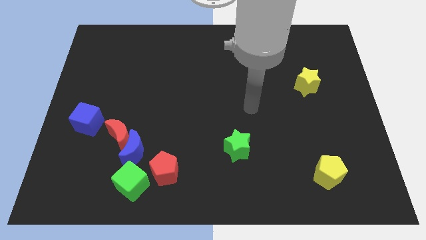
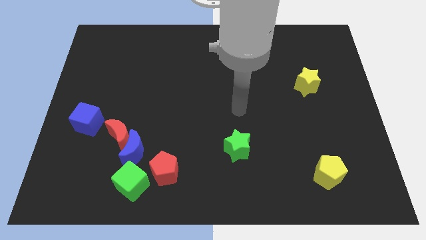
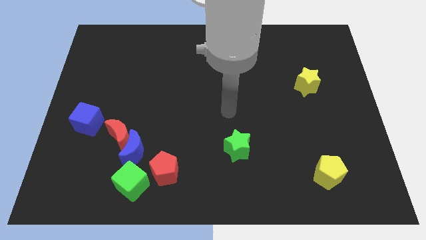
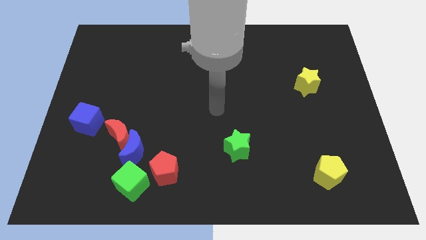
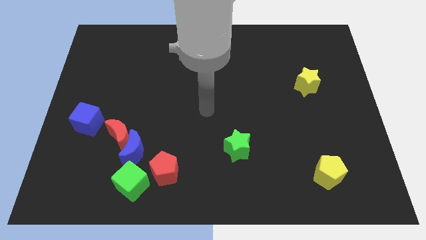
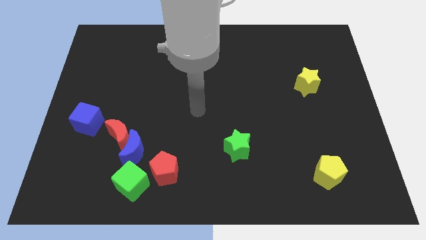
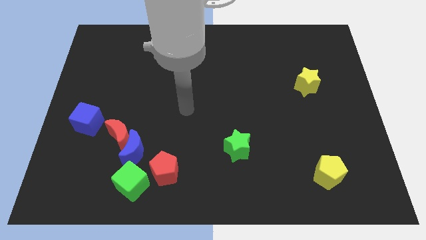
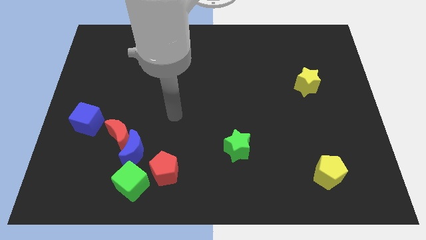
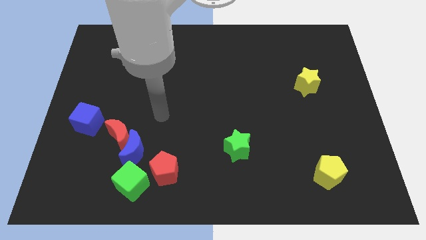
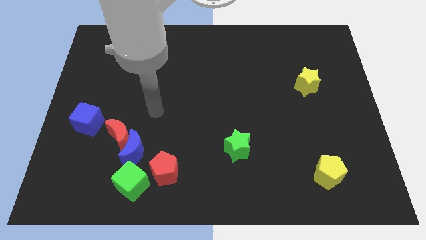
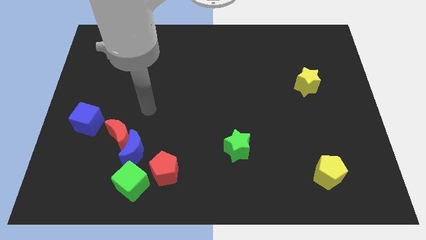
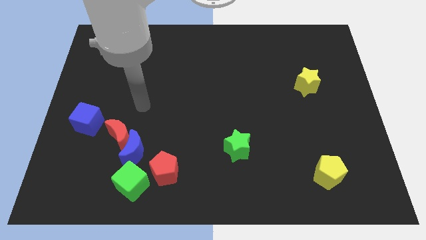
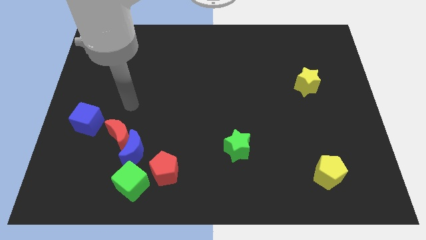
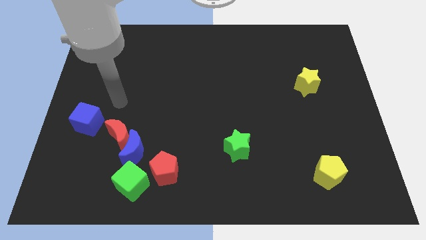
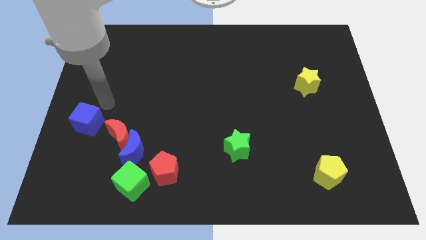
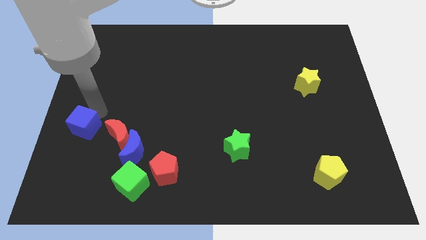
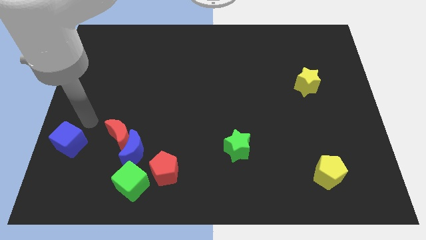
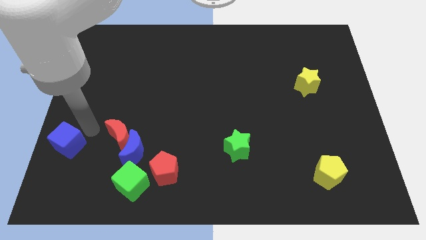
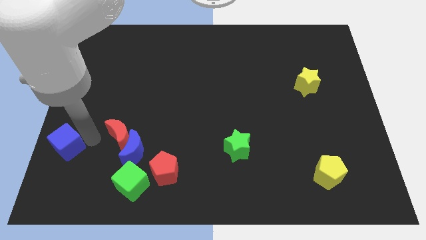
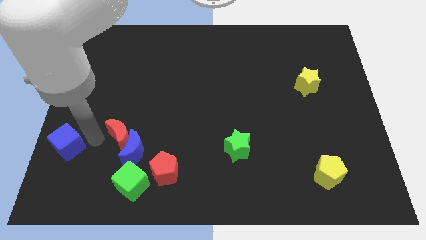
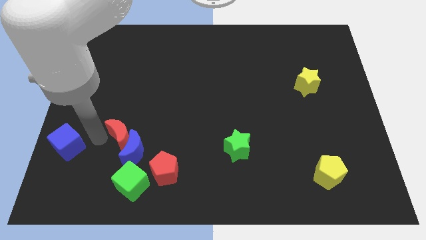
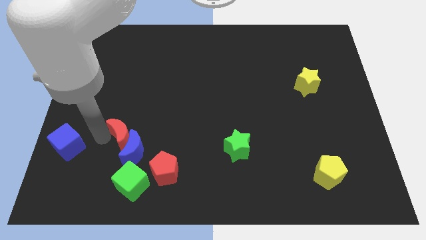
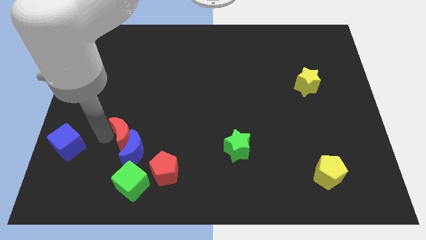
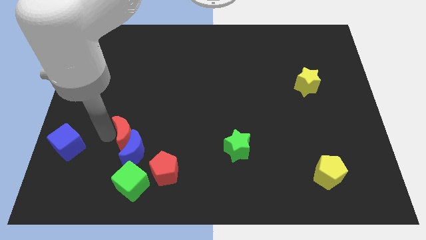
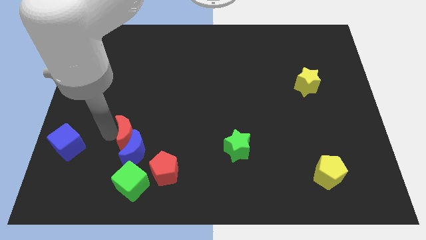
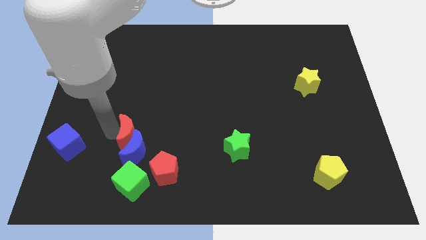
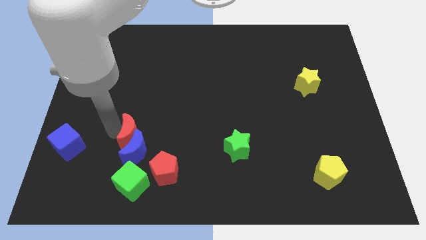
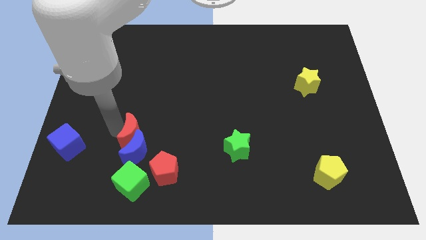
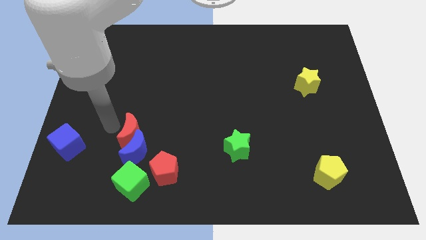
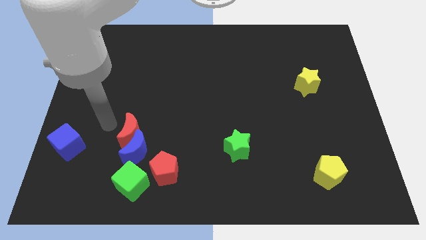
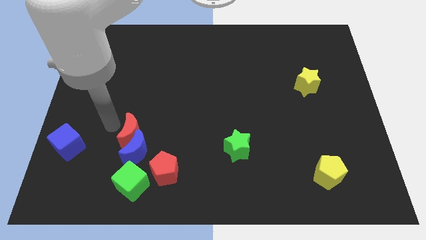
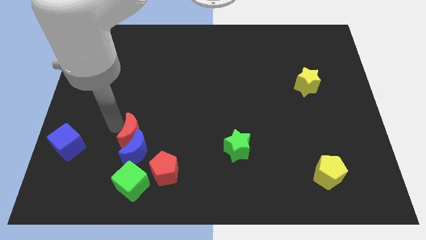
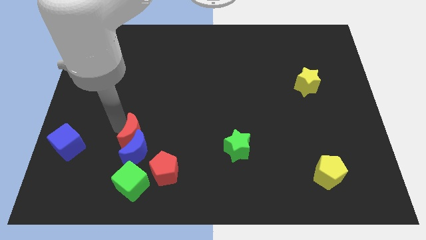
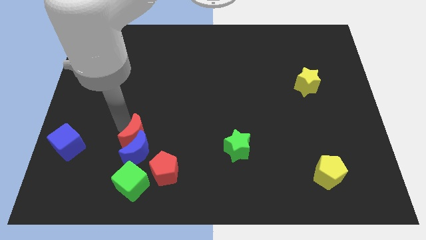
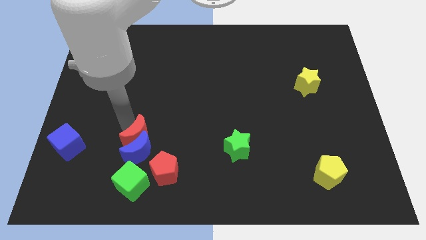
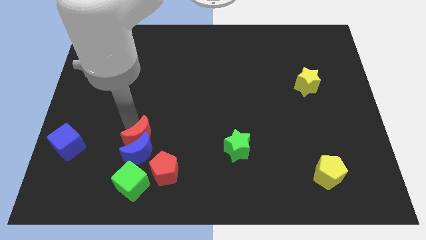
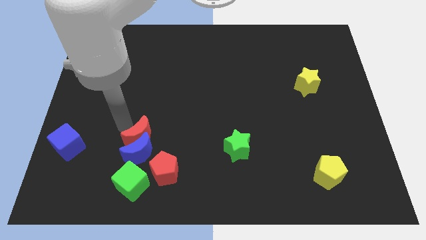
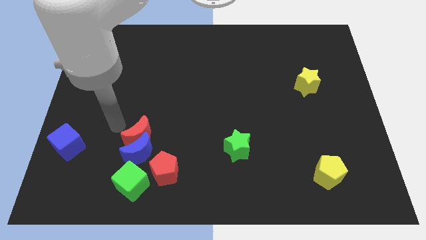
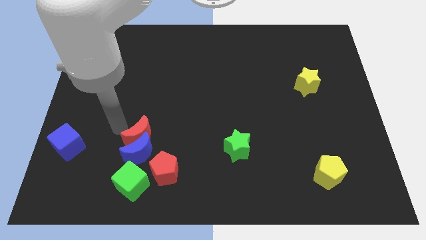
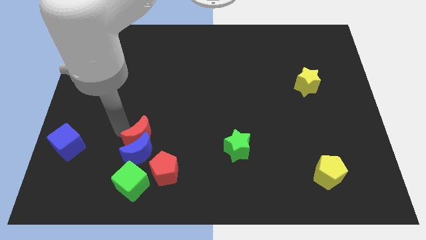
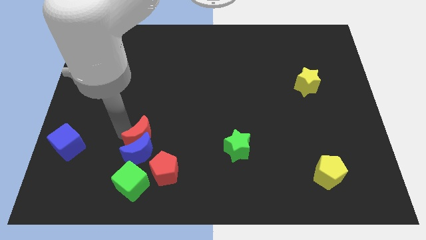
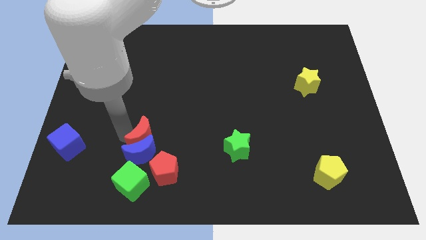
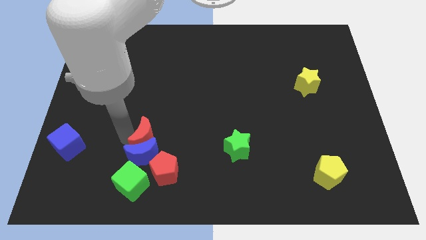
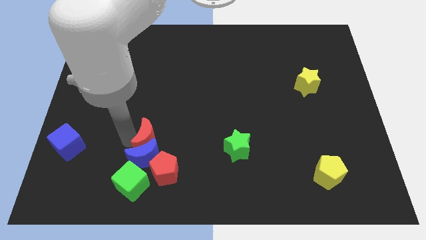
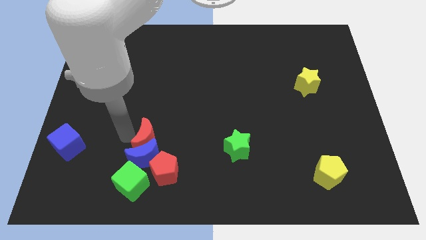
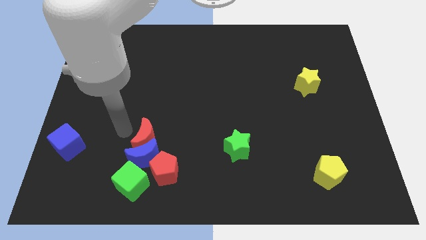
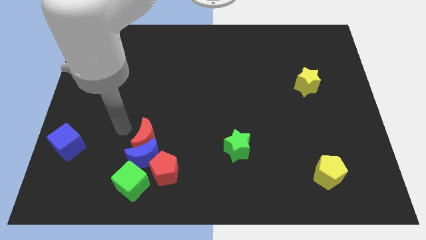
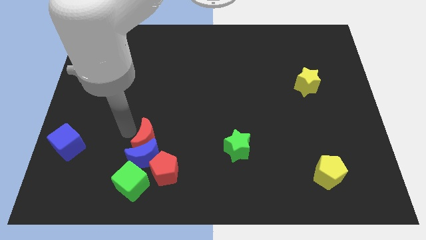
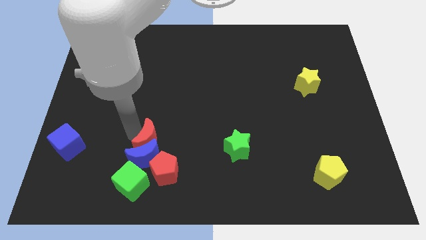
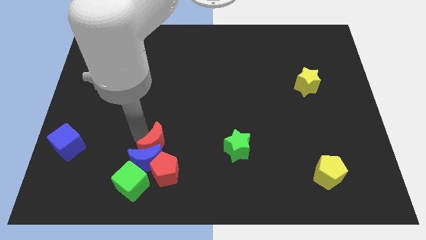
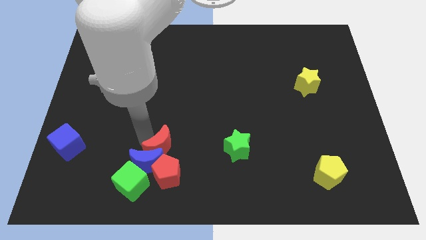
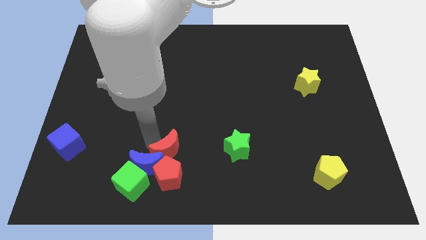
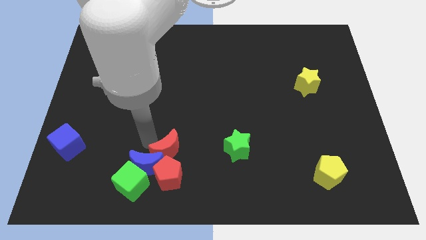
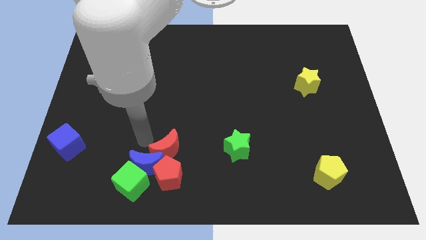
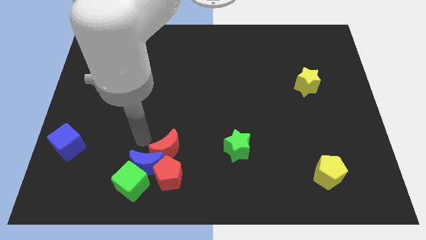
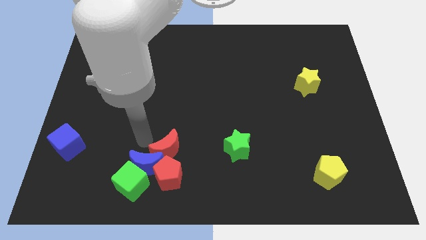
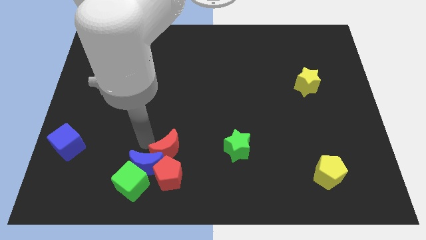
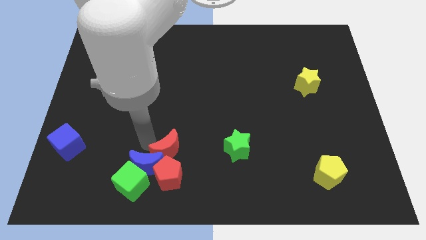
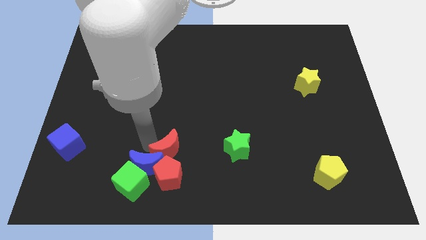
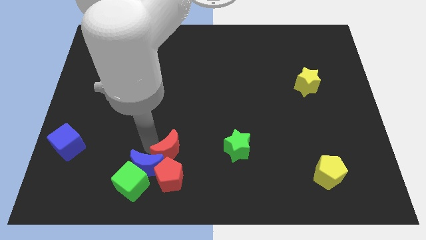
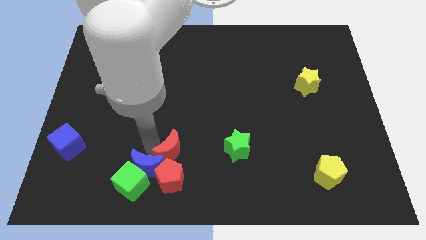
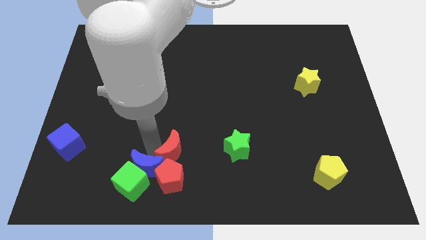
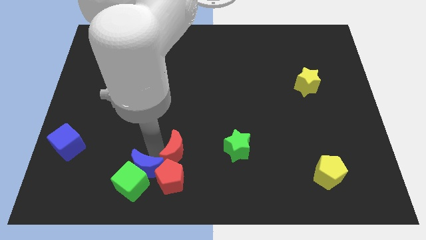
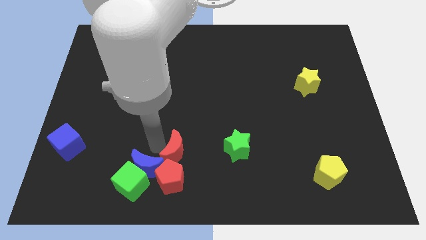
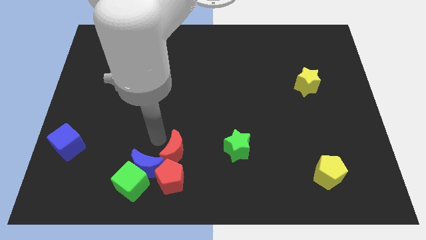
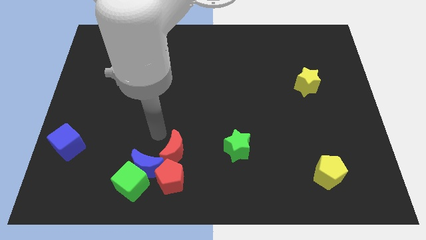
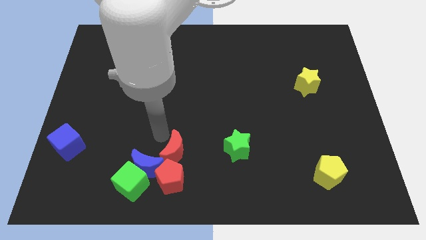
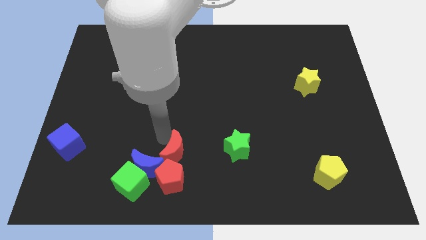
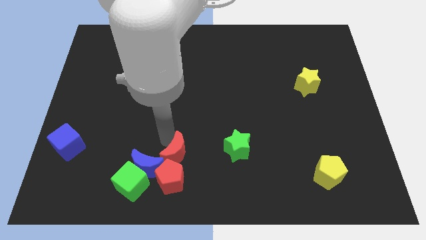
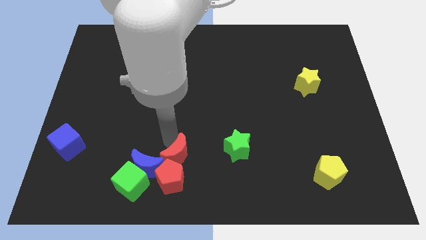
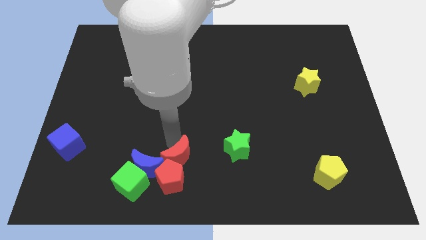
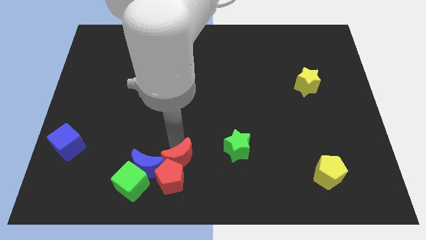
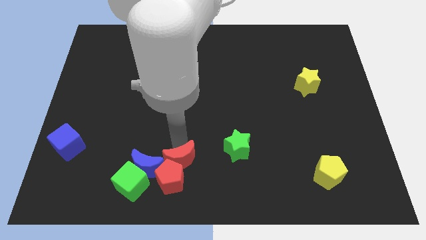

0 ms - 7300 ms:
push the red moon to the bottom side
